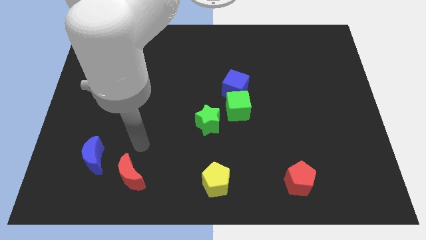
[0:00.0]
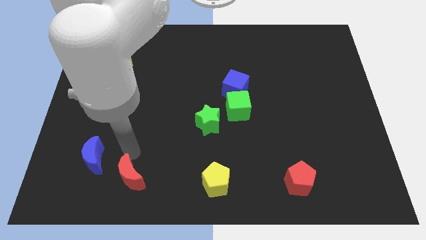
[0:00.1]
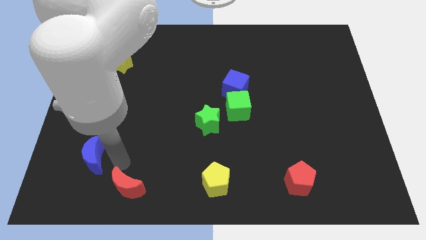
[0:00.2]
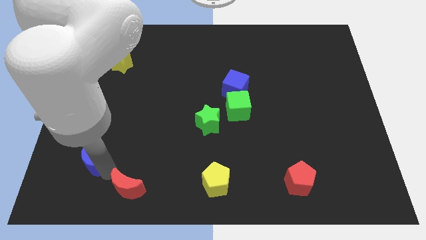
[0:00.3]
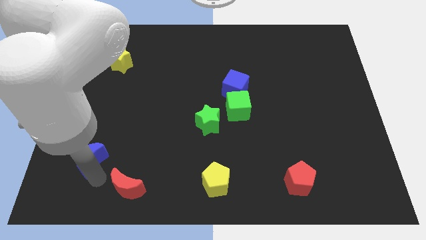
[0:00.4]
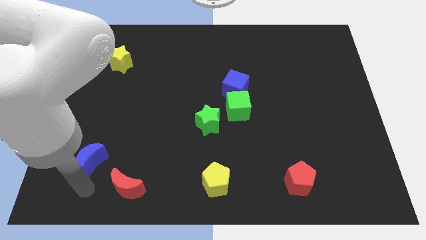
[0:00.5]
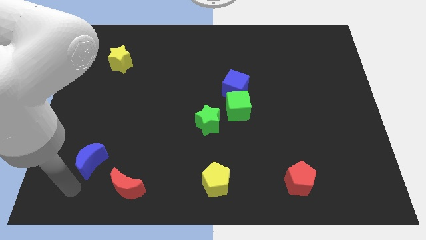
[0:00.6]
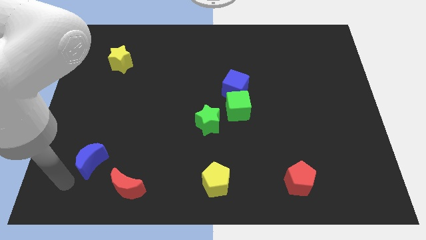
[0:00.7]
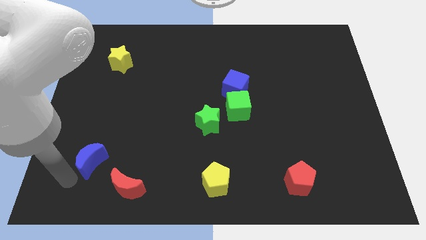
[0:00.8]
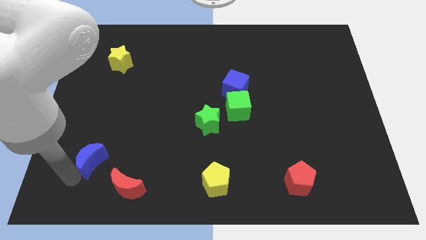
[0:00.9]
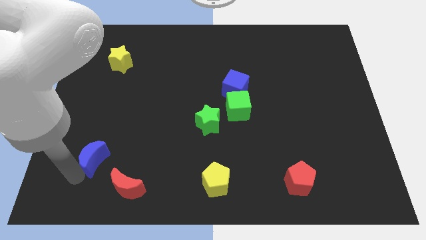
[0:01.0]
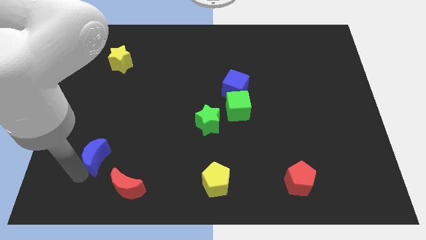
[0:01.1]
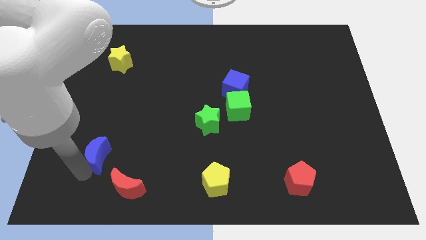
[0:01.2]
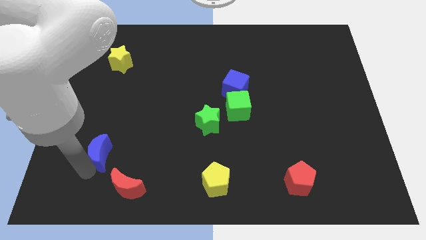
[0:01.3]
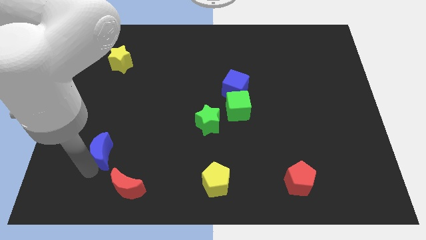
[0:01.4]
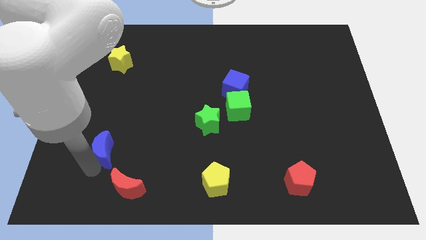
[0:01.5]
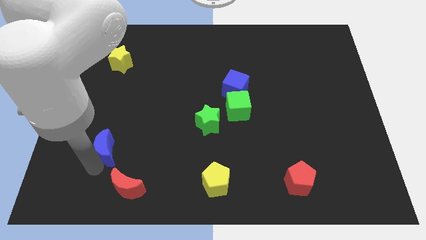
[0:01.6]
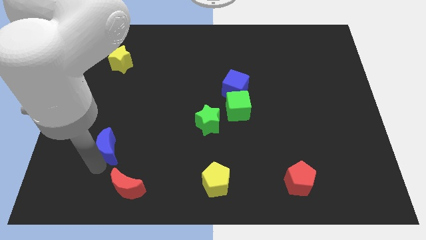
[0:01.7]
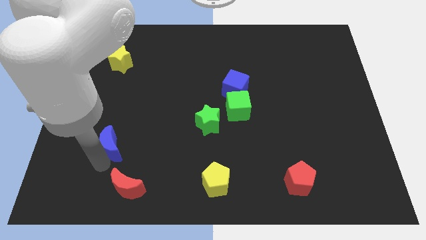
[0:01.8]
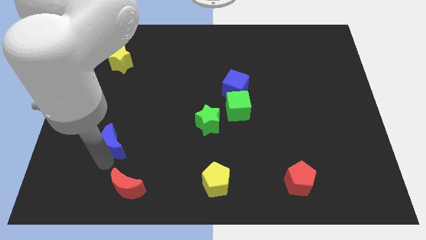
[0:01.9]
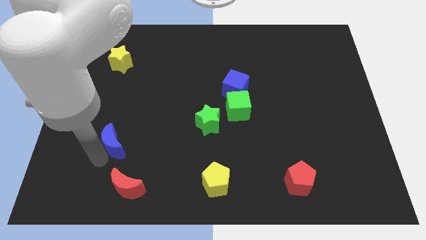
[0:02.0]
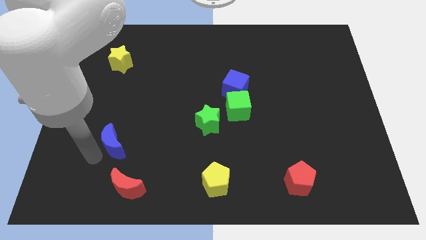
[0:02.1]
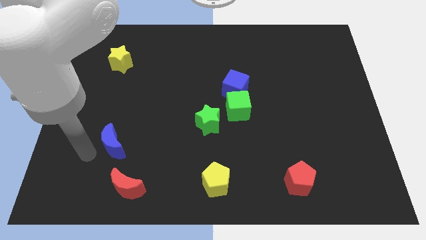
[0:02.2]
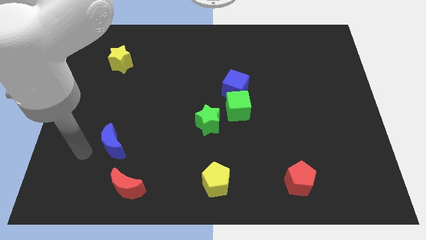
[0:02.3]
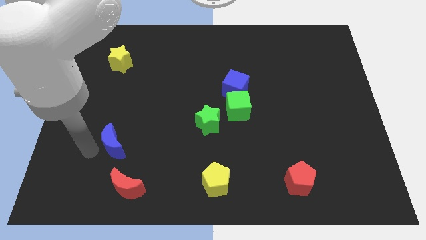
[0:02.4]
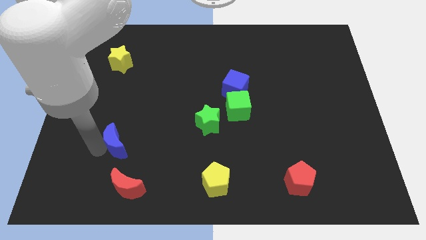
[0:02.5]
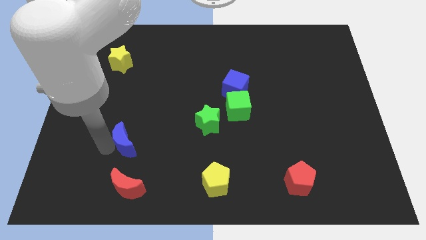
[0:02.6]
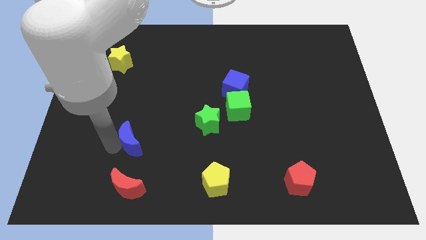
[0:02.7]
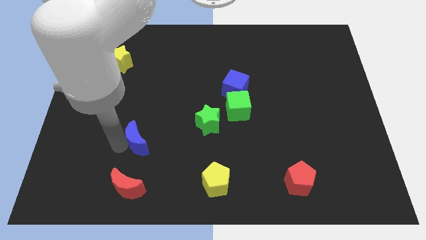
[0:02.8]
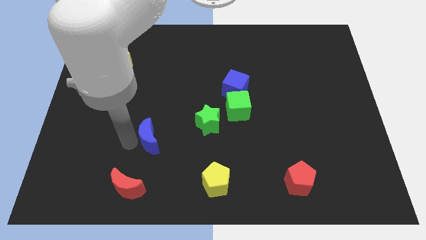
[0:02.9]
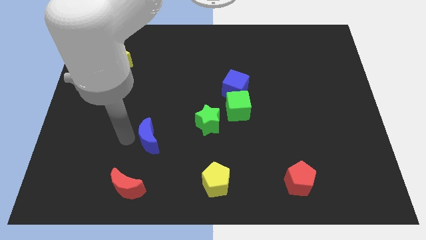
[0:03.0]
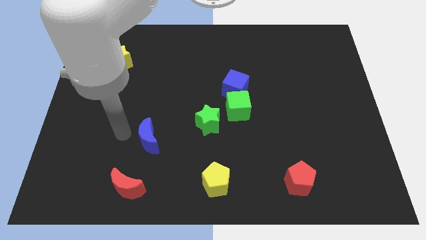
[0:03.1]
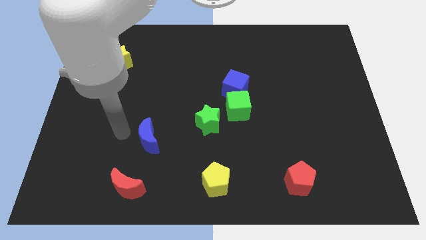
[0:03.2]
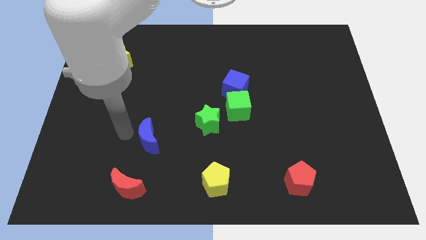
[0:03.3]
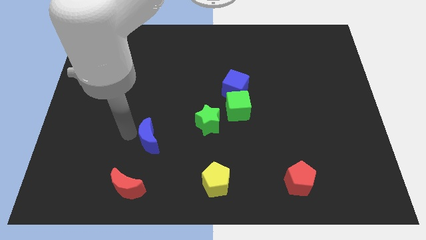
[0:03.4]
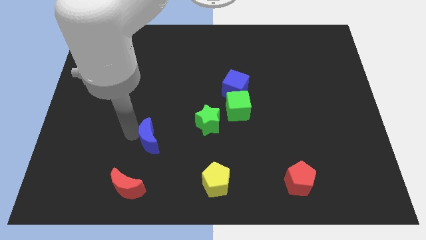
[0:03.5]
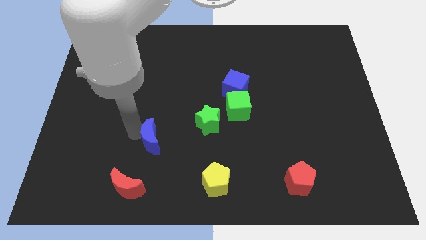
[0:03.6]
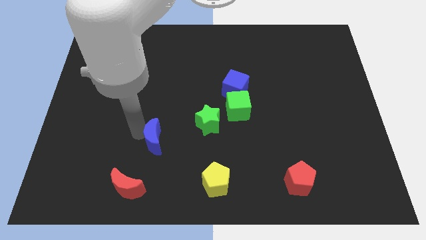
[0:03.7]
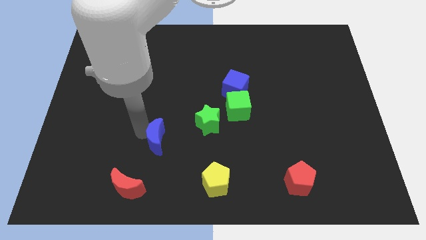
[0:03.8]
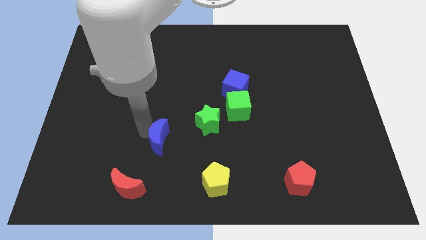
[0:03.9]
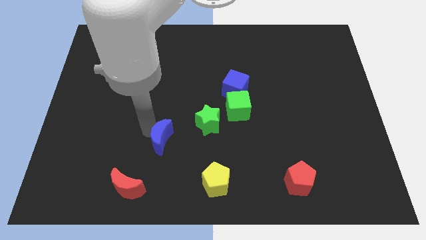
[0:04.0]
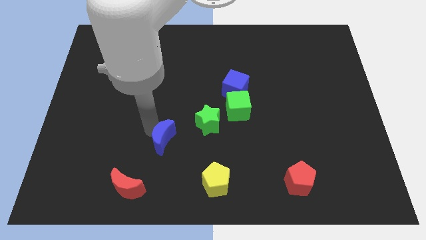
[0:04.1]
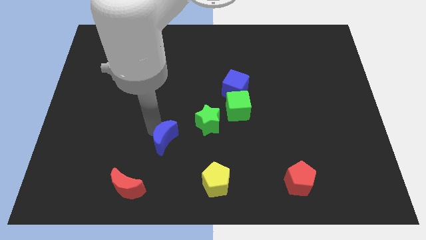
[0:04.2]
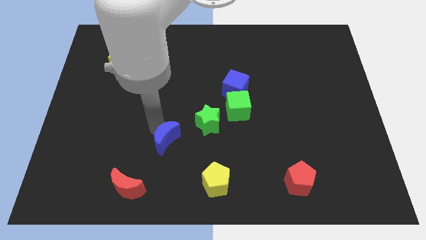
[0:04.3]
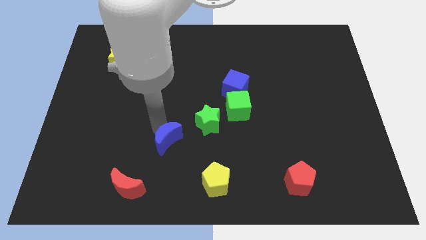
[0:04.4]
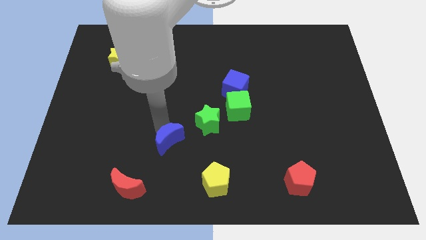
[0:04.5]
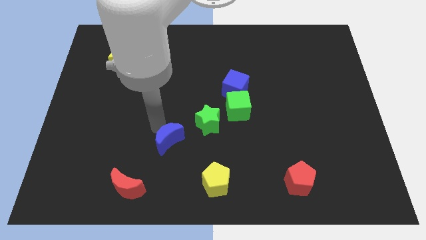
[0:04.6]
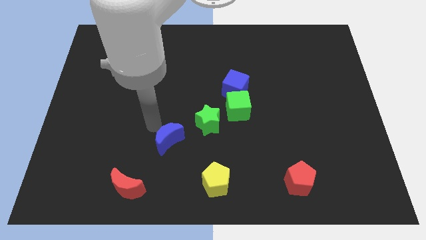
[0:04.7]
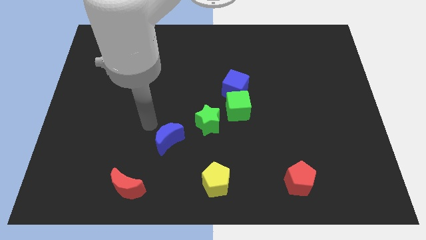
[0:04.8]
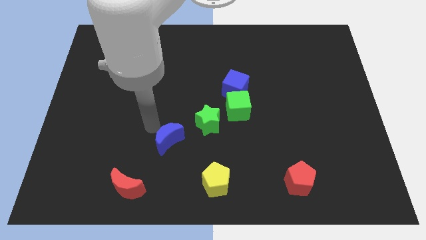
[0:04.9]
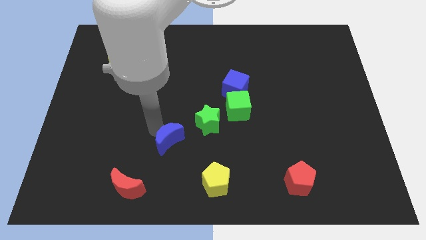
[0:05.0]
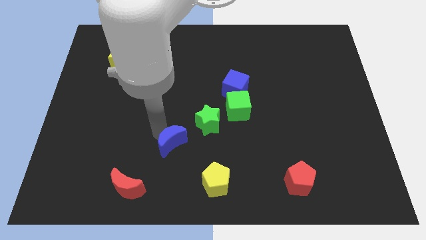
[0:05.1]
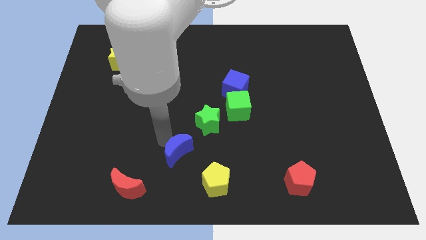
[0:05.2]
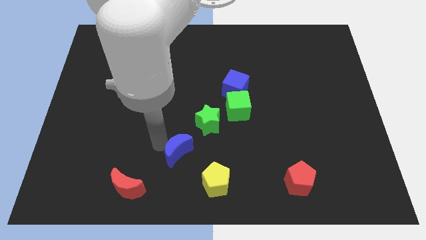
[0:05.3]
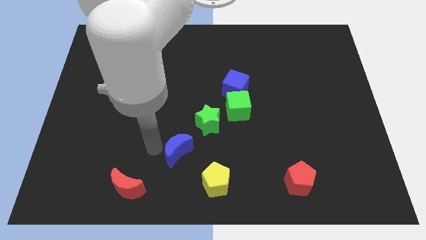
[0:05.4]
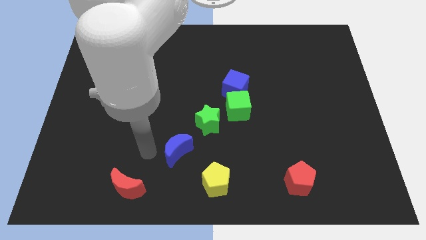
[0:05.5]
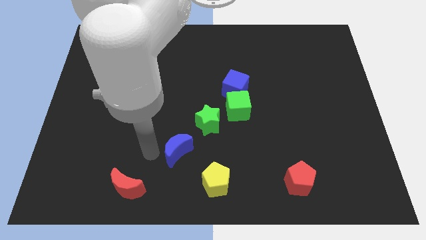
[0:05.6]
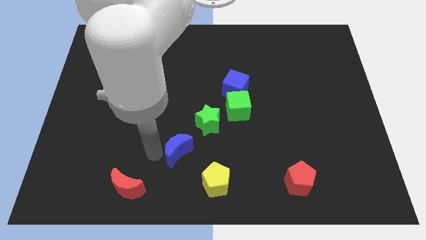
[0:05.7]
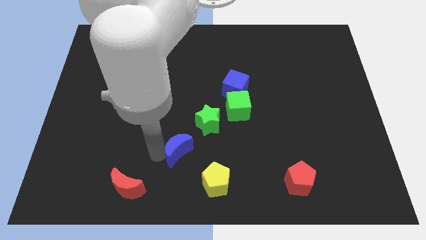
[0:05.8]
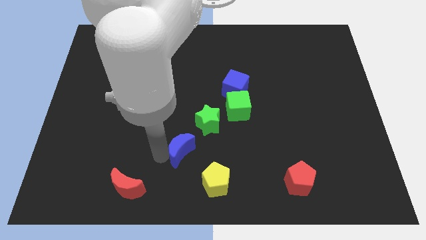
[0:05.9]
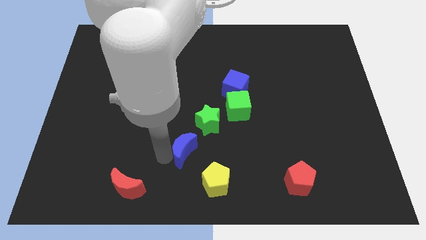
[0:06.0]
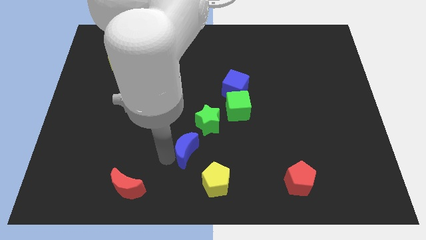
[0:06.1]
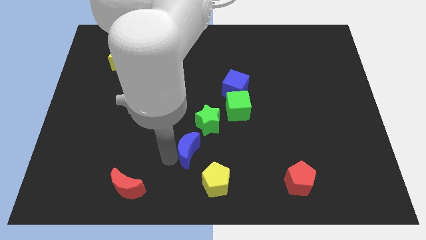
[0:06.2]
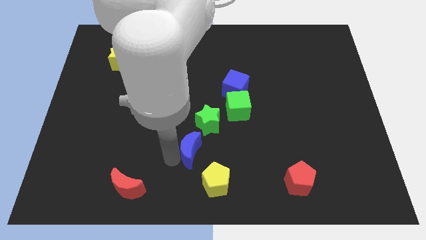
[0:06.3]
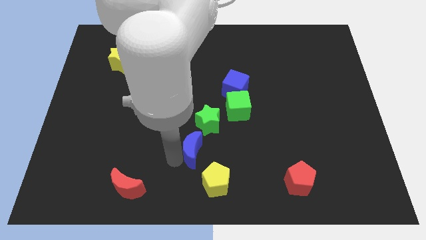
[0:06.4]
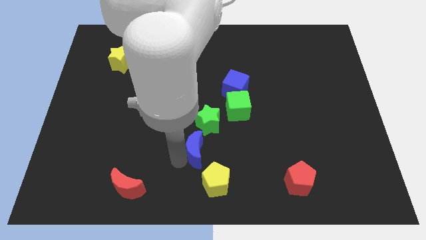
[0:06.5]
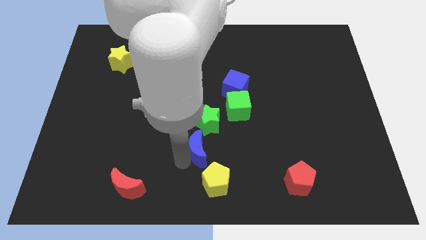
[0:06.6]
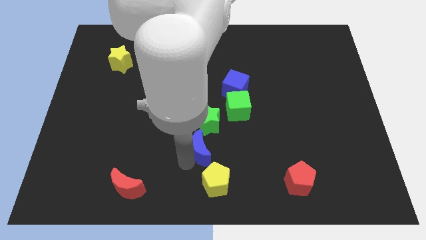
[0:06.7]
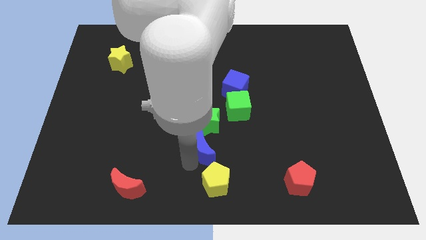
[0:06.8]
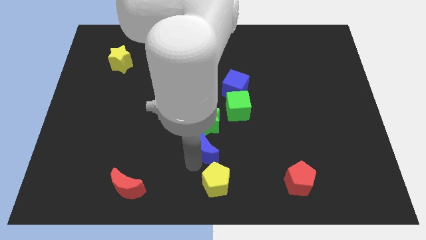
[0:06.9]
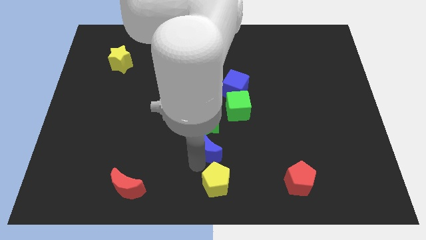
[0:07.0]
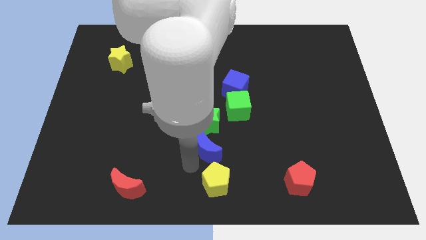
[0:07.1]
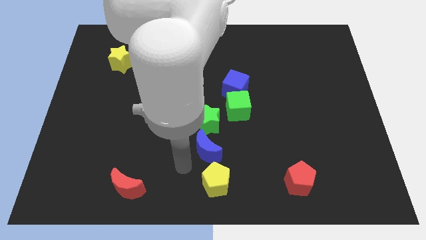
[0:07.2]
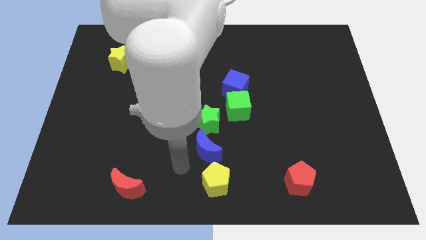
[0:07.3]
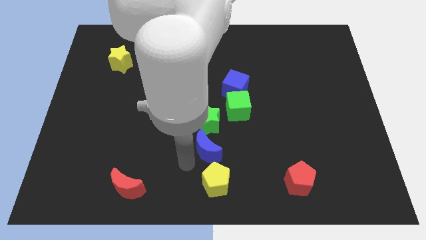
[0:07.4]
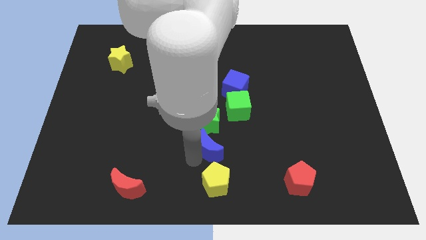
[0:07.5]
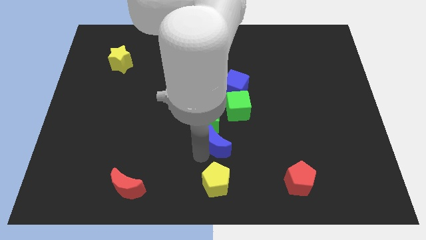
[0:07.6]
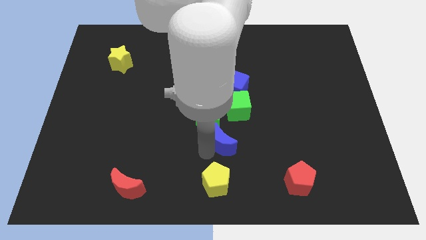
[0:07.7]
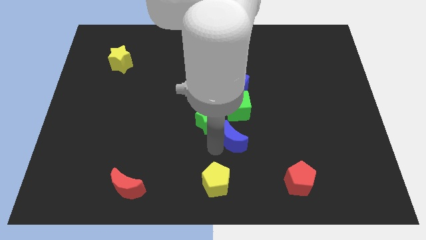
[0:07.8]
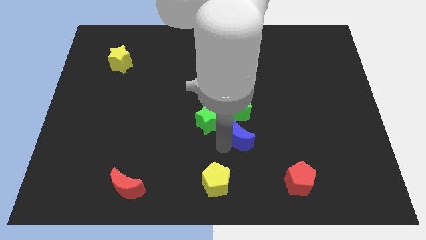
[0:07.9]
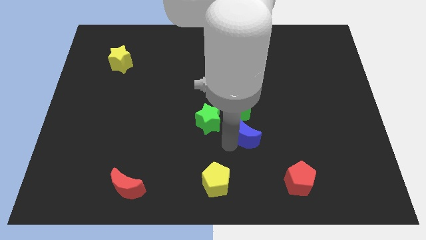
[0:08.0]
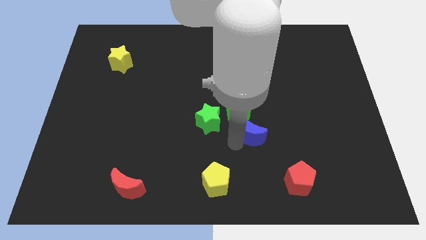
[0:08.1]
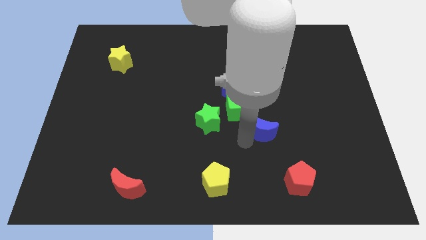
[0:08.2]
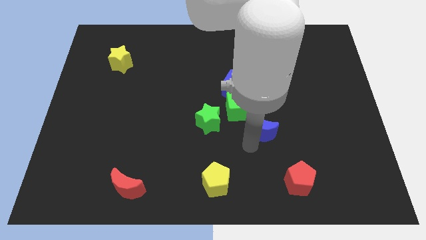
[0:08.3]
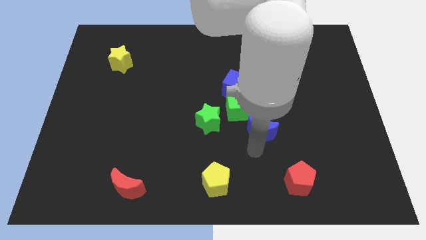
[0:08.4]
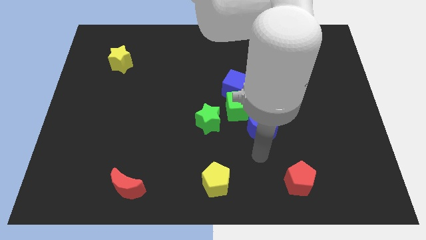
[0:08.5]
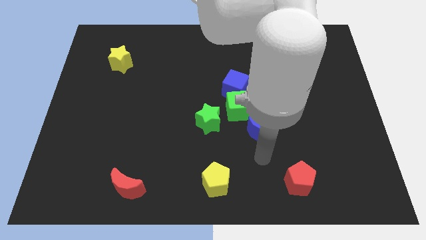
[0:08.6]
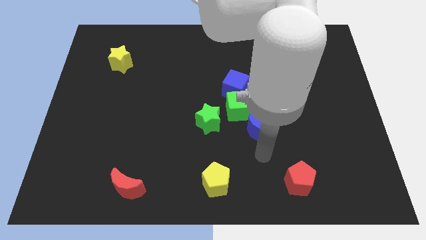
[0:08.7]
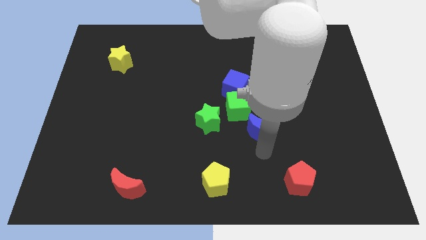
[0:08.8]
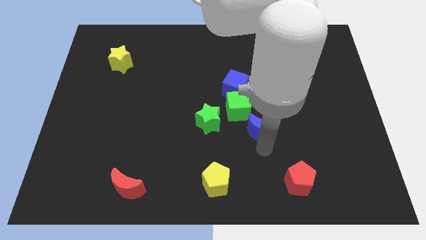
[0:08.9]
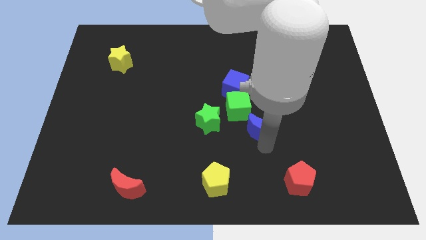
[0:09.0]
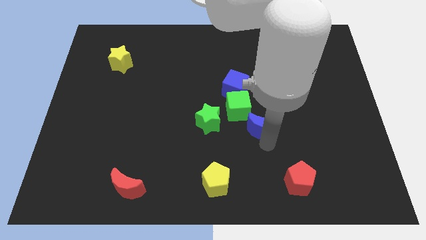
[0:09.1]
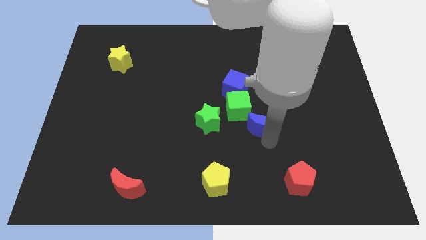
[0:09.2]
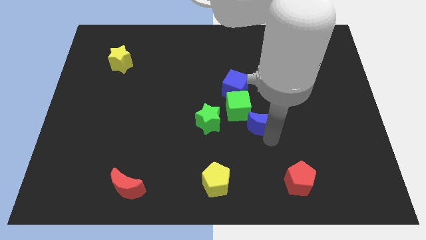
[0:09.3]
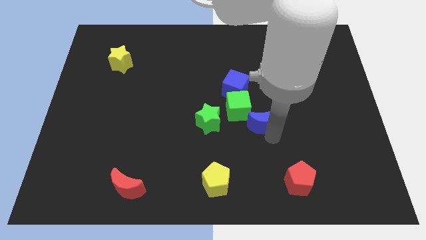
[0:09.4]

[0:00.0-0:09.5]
push the blue moon to the bottom right of the blue cube
